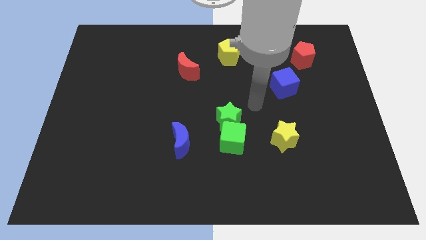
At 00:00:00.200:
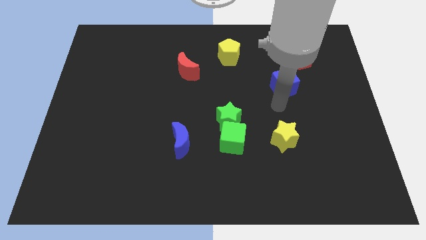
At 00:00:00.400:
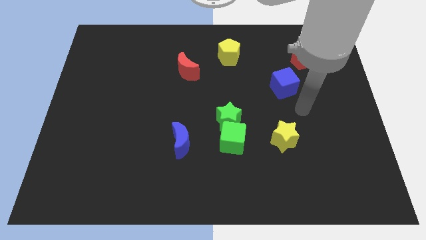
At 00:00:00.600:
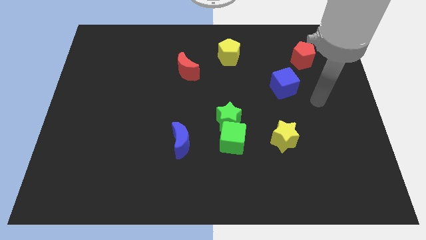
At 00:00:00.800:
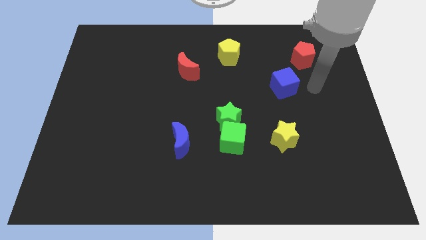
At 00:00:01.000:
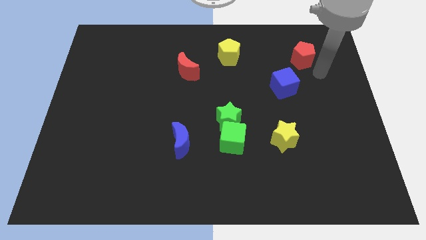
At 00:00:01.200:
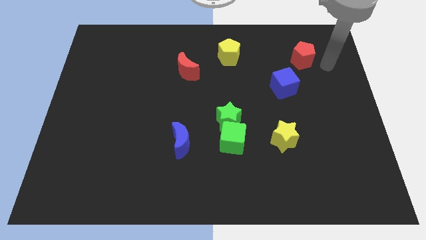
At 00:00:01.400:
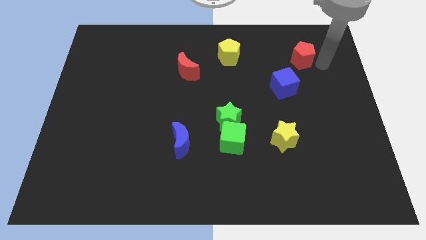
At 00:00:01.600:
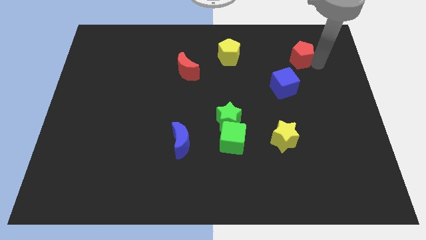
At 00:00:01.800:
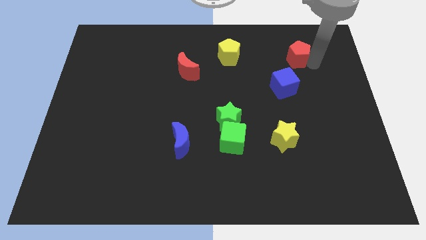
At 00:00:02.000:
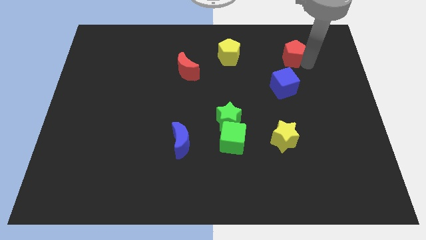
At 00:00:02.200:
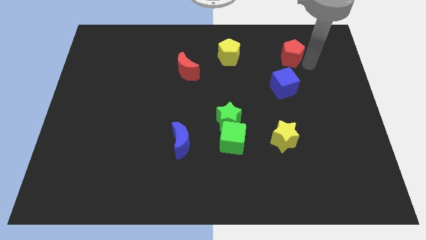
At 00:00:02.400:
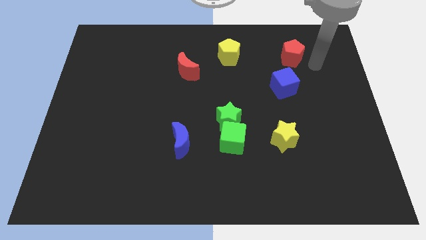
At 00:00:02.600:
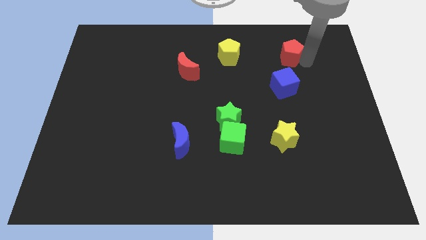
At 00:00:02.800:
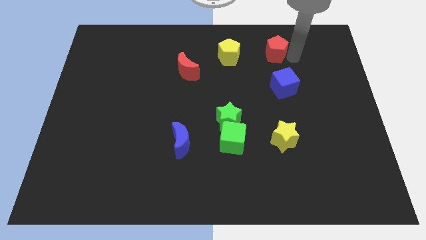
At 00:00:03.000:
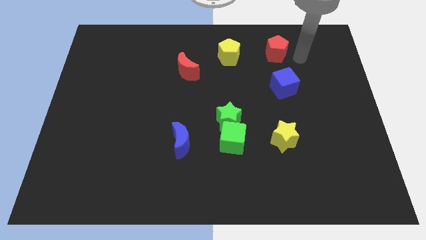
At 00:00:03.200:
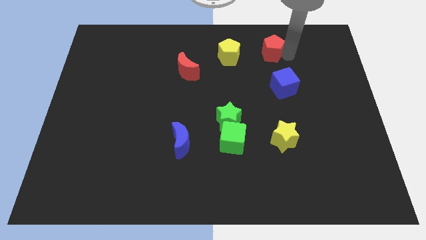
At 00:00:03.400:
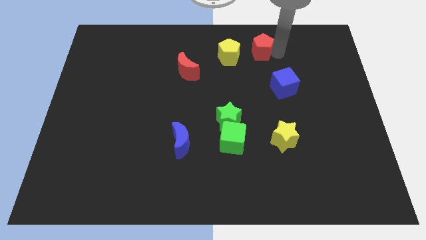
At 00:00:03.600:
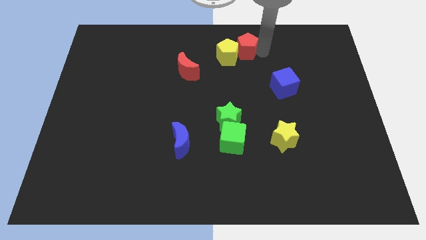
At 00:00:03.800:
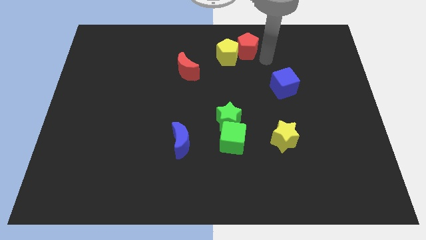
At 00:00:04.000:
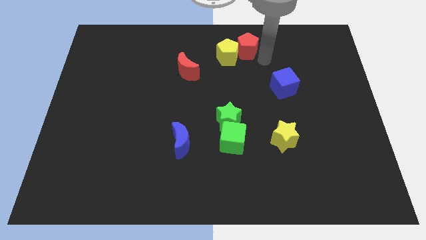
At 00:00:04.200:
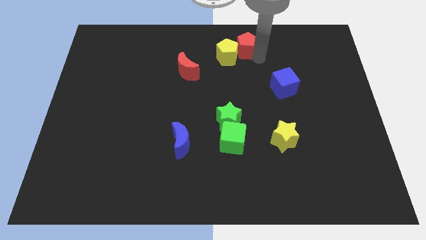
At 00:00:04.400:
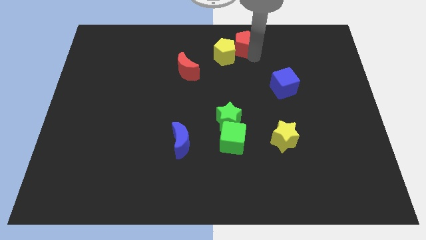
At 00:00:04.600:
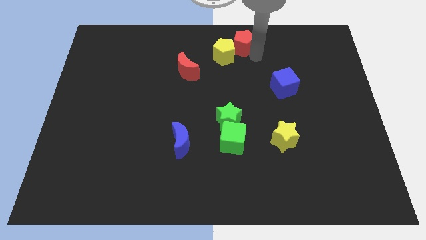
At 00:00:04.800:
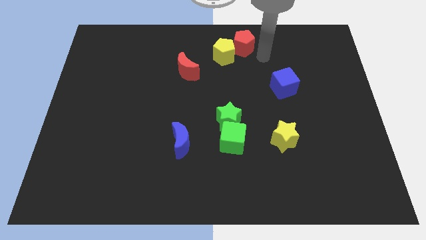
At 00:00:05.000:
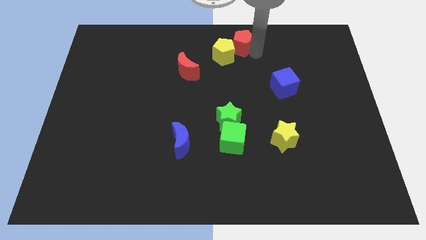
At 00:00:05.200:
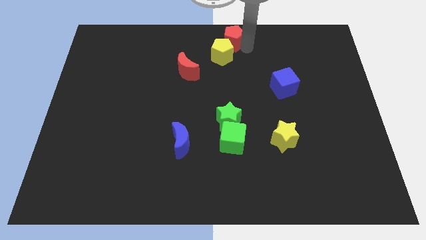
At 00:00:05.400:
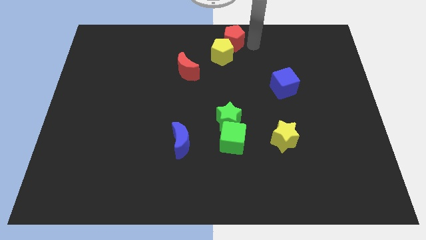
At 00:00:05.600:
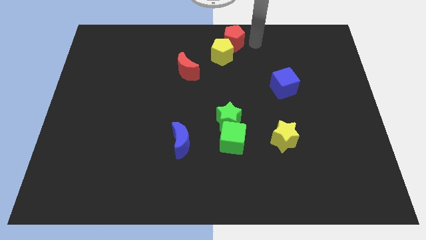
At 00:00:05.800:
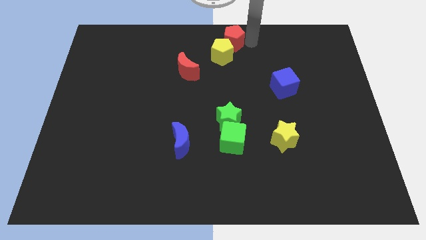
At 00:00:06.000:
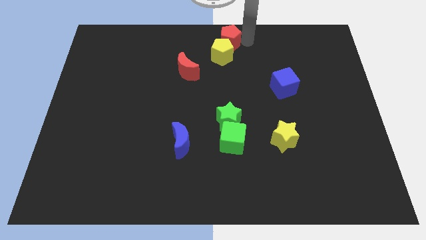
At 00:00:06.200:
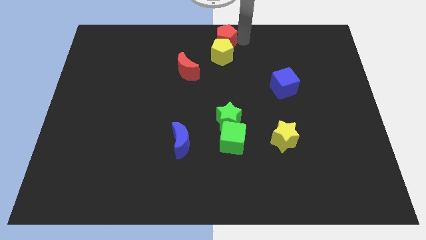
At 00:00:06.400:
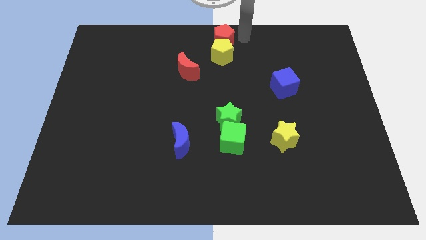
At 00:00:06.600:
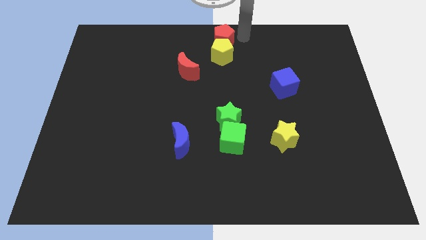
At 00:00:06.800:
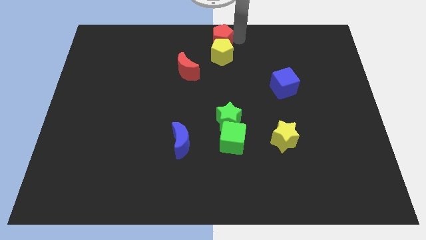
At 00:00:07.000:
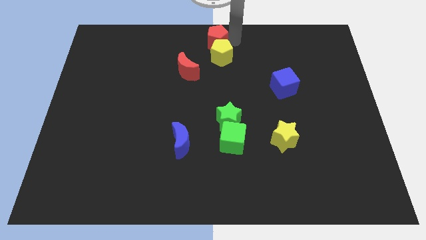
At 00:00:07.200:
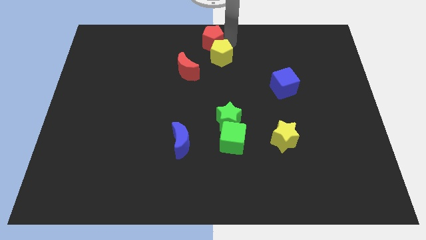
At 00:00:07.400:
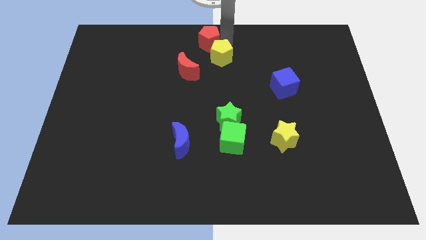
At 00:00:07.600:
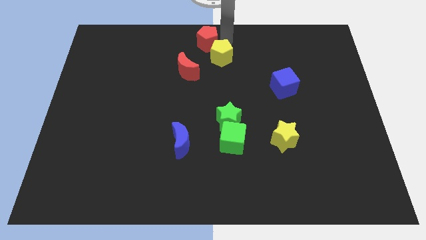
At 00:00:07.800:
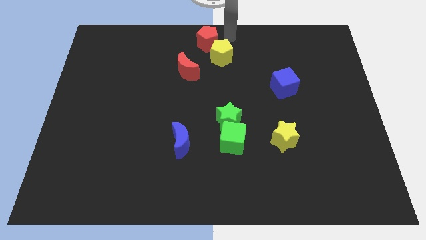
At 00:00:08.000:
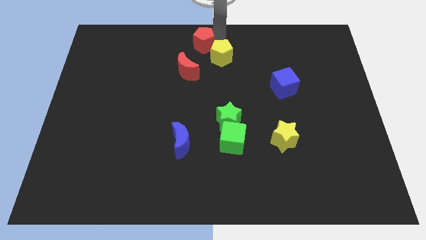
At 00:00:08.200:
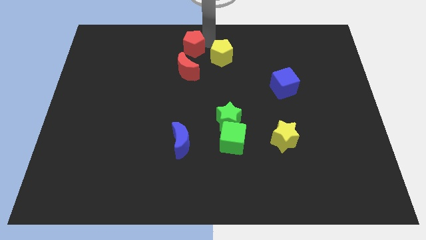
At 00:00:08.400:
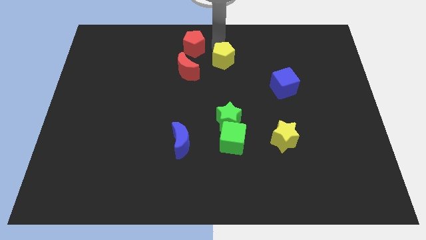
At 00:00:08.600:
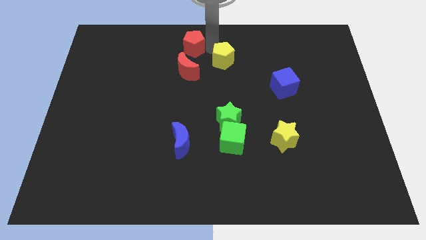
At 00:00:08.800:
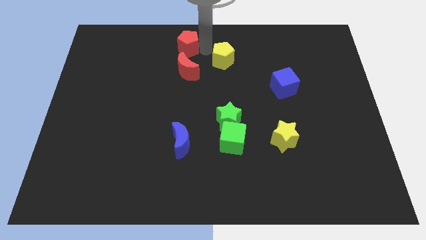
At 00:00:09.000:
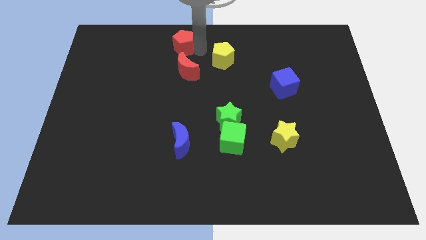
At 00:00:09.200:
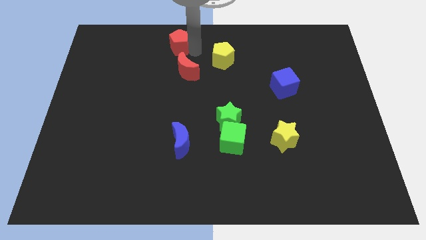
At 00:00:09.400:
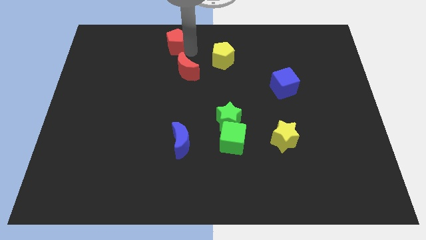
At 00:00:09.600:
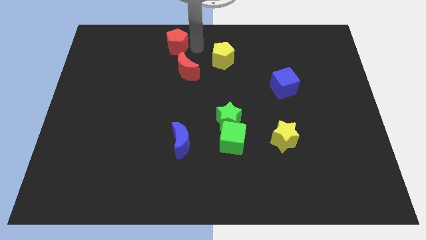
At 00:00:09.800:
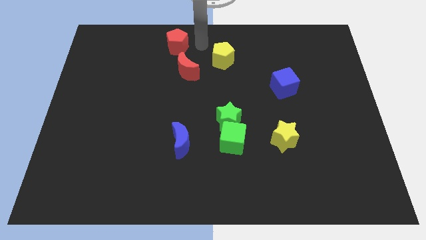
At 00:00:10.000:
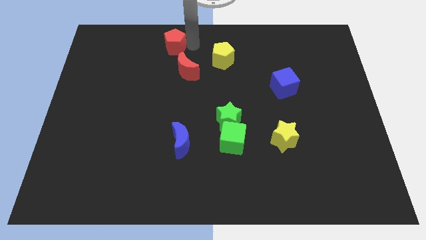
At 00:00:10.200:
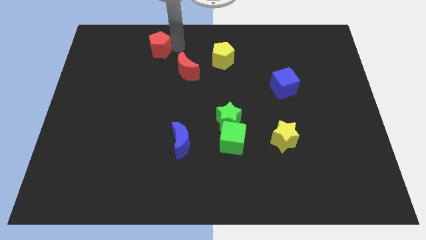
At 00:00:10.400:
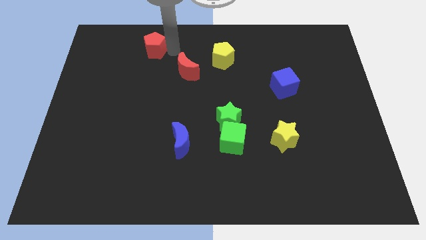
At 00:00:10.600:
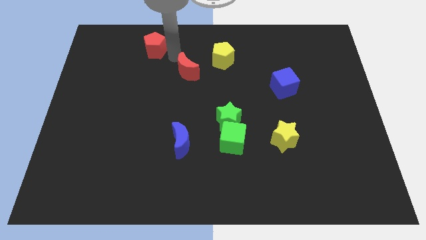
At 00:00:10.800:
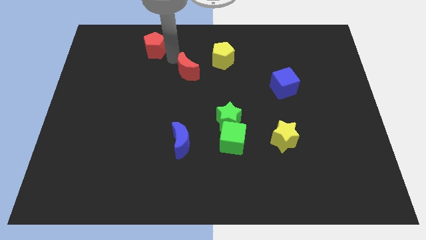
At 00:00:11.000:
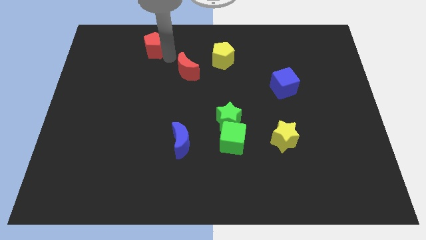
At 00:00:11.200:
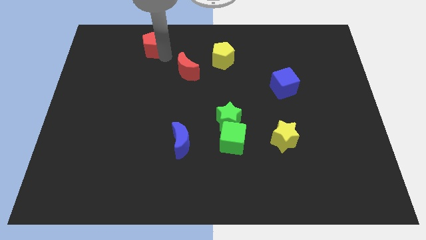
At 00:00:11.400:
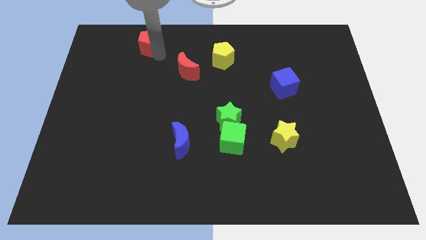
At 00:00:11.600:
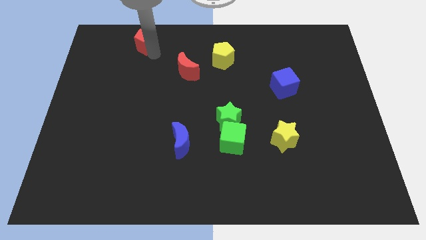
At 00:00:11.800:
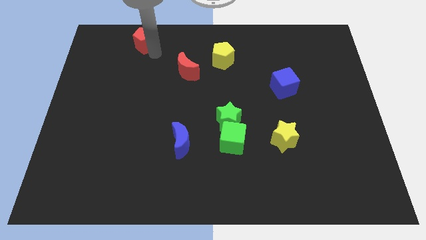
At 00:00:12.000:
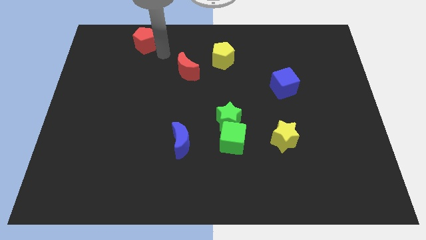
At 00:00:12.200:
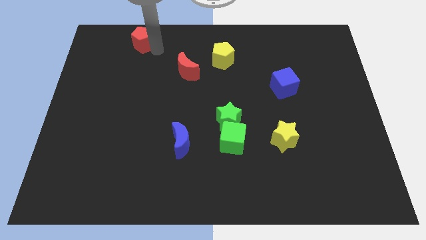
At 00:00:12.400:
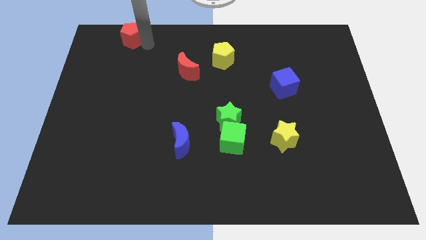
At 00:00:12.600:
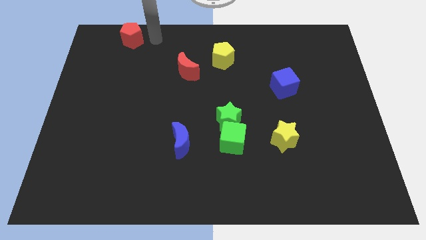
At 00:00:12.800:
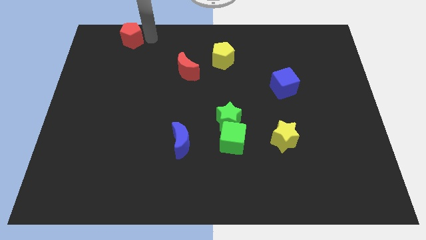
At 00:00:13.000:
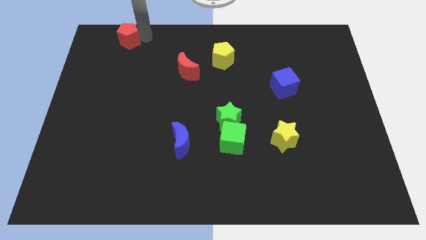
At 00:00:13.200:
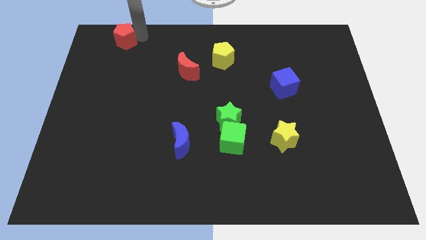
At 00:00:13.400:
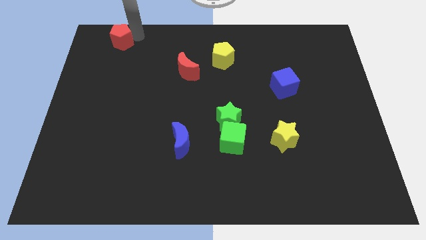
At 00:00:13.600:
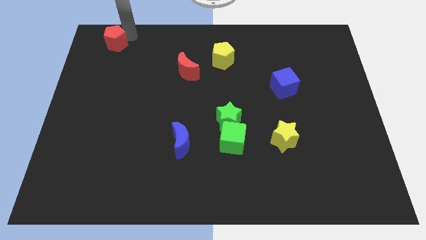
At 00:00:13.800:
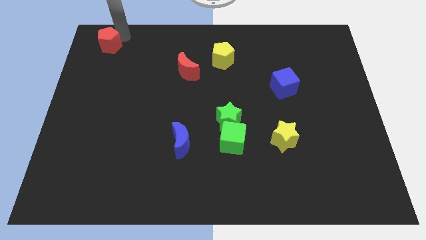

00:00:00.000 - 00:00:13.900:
push the red pentagon to the top left of the board
